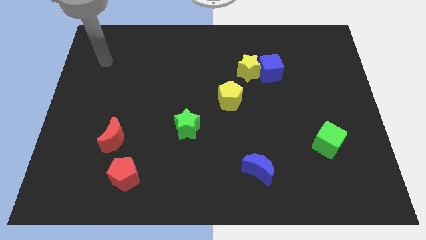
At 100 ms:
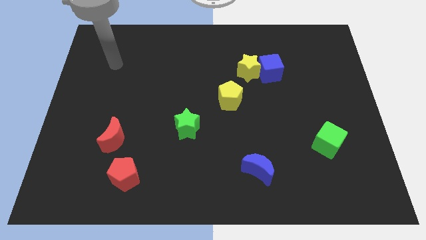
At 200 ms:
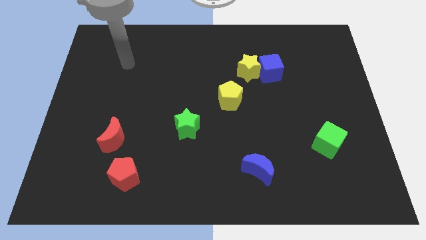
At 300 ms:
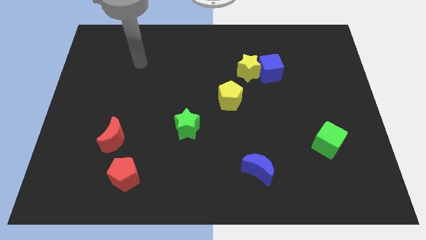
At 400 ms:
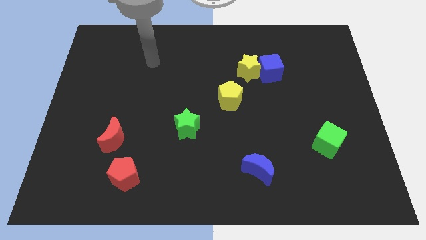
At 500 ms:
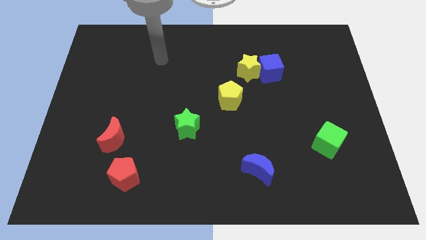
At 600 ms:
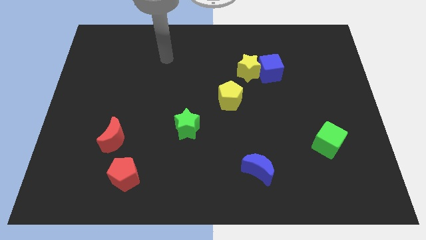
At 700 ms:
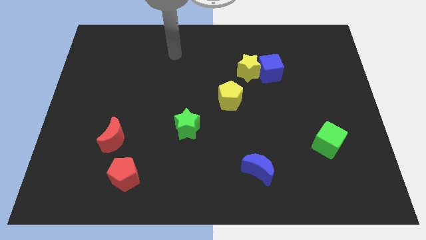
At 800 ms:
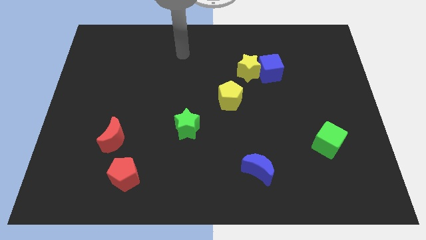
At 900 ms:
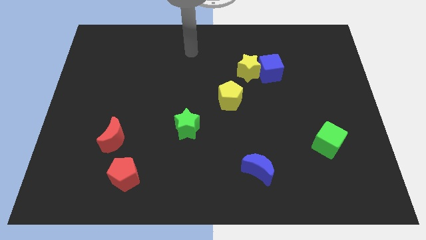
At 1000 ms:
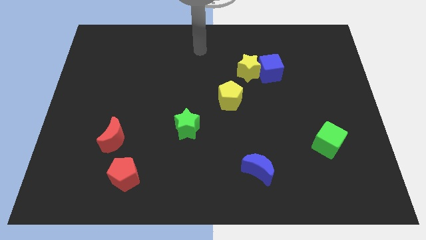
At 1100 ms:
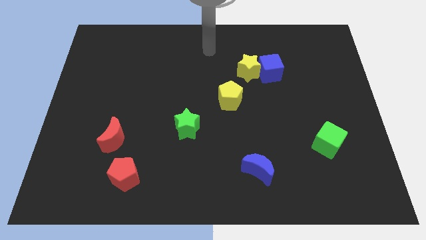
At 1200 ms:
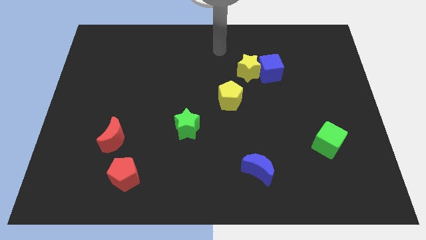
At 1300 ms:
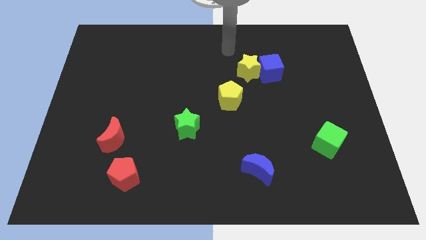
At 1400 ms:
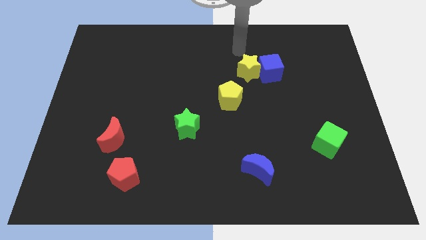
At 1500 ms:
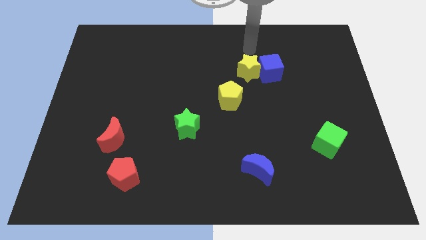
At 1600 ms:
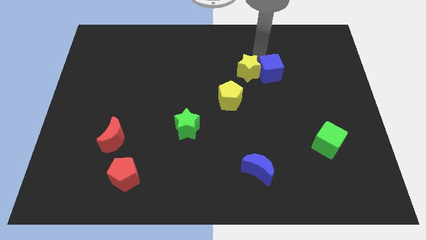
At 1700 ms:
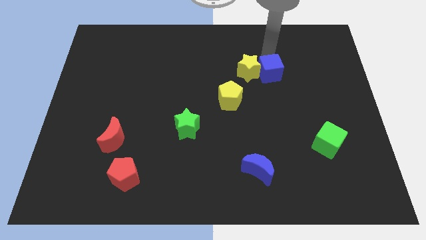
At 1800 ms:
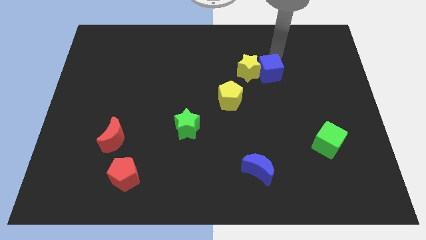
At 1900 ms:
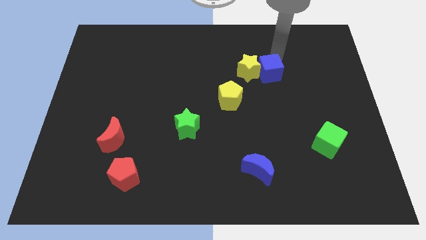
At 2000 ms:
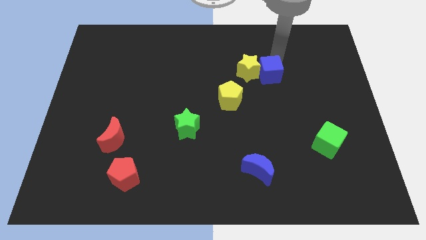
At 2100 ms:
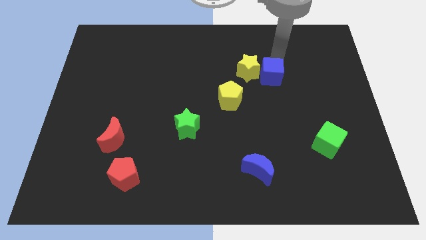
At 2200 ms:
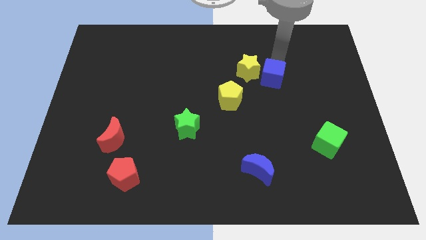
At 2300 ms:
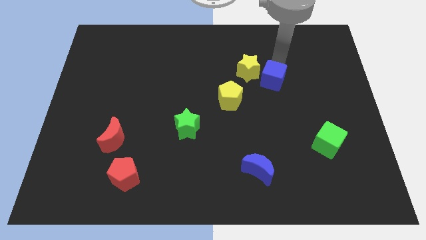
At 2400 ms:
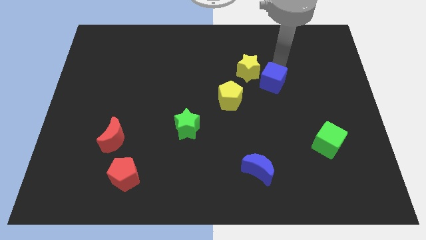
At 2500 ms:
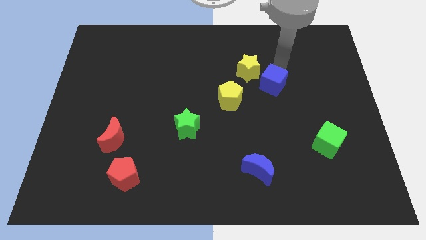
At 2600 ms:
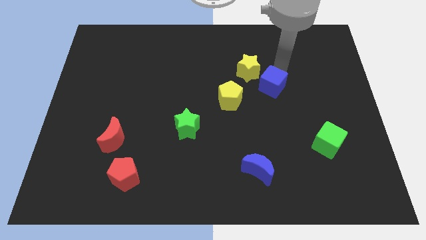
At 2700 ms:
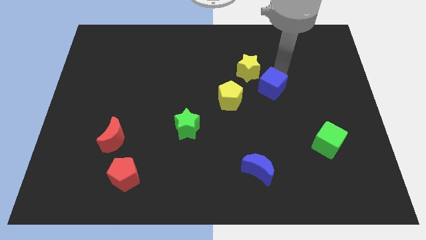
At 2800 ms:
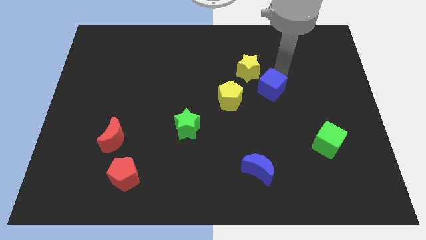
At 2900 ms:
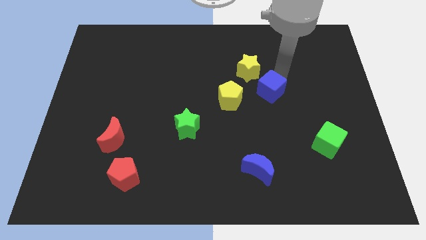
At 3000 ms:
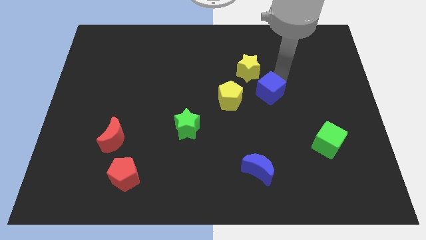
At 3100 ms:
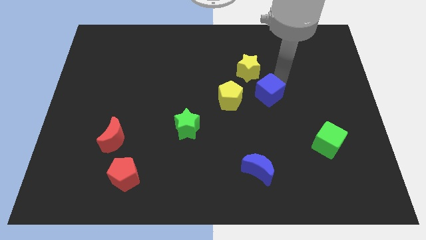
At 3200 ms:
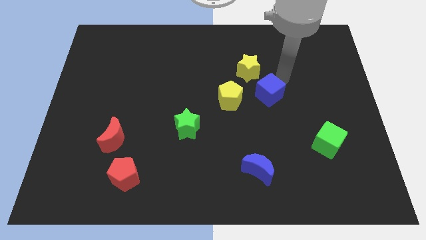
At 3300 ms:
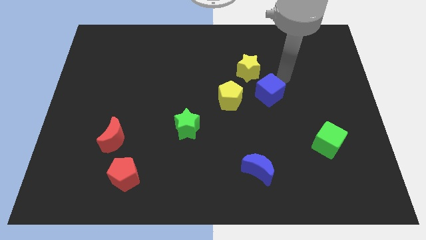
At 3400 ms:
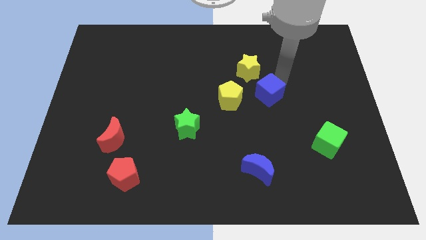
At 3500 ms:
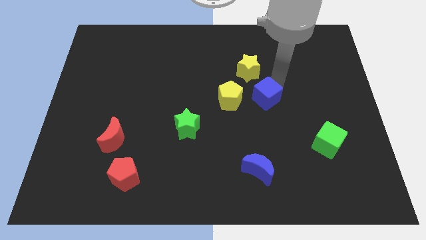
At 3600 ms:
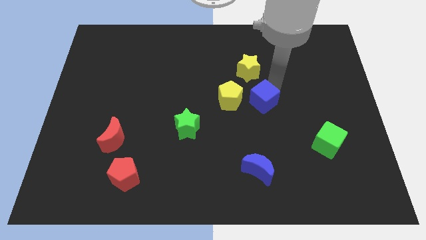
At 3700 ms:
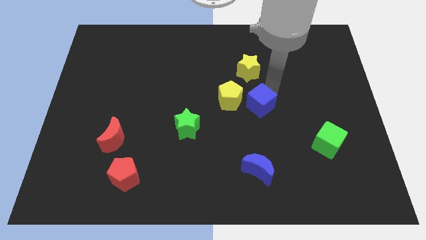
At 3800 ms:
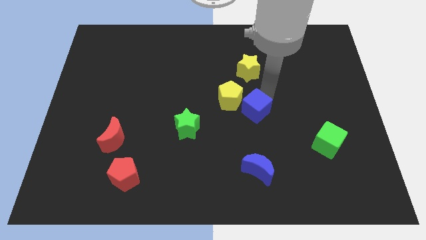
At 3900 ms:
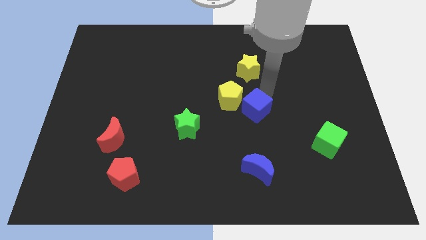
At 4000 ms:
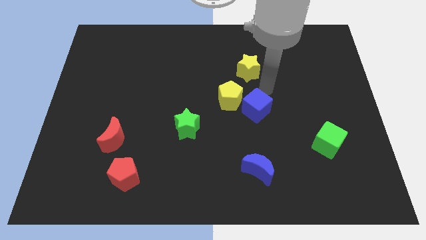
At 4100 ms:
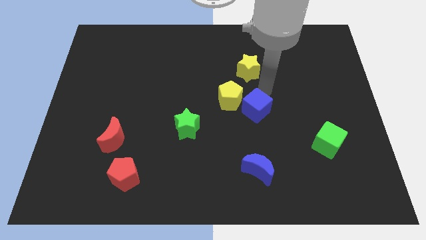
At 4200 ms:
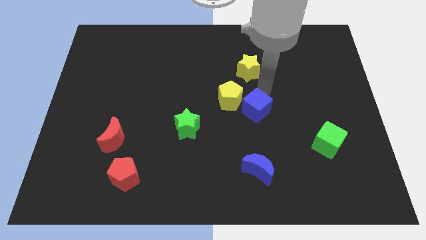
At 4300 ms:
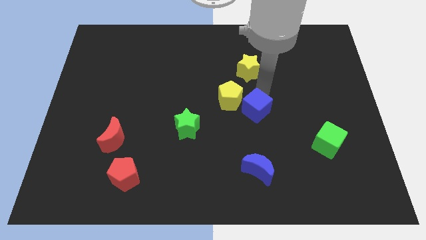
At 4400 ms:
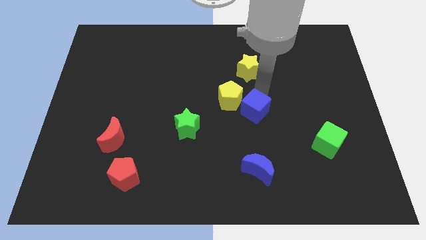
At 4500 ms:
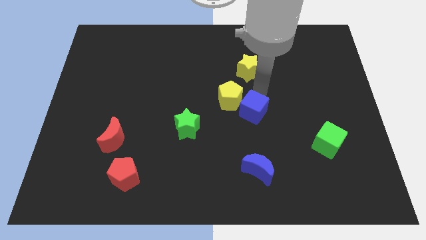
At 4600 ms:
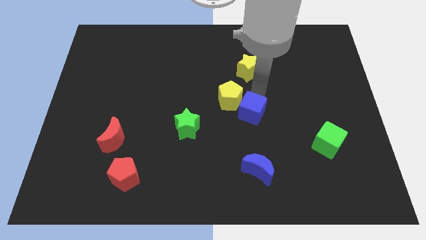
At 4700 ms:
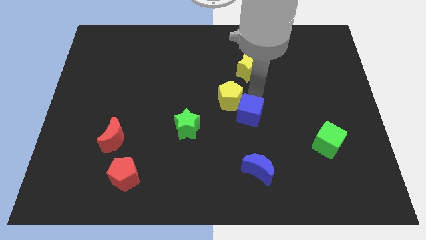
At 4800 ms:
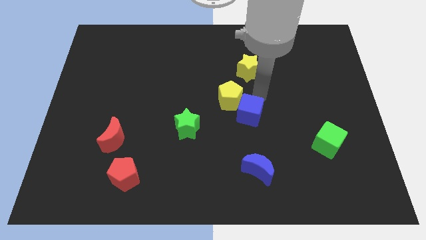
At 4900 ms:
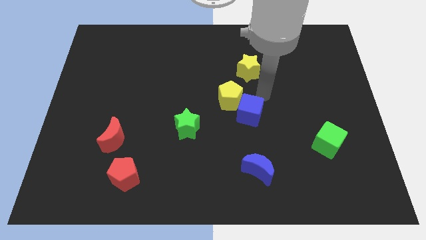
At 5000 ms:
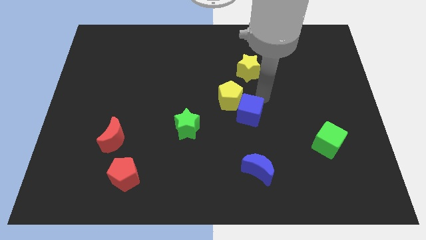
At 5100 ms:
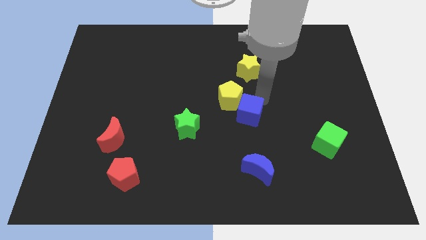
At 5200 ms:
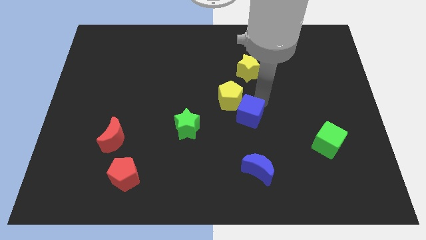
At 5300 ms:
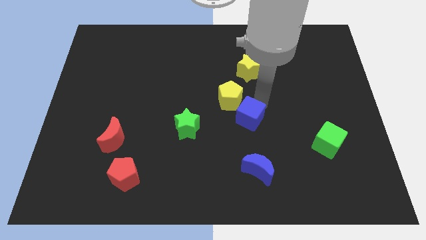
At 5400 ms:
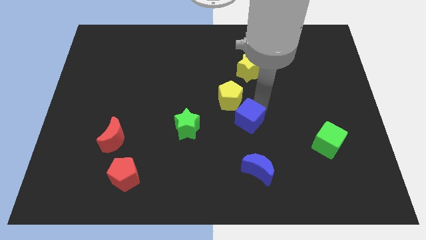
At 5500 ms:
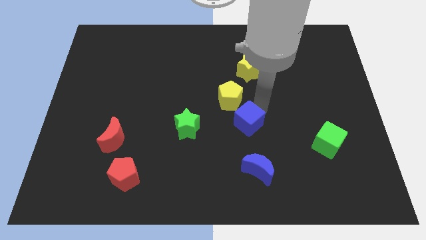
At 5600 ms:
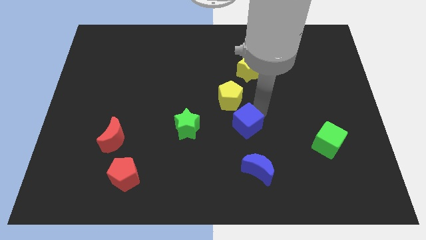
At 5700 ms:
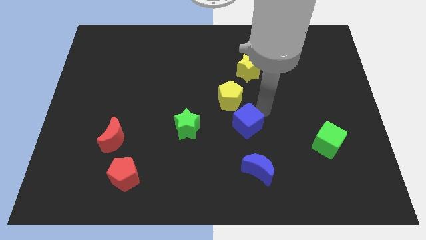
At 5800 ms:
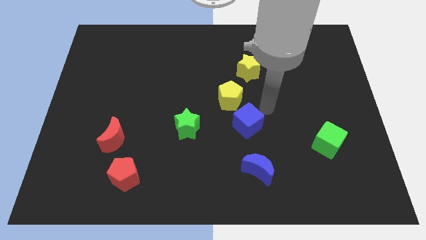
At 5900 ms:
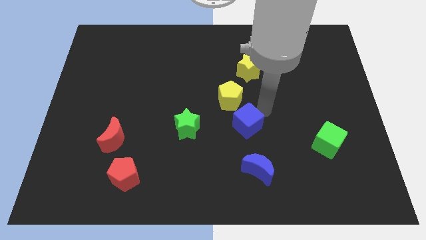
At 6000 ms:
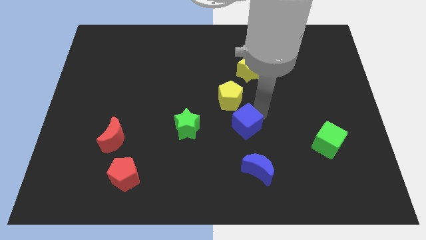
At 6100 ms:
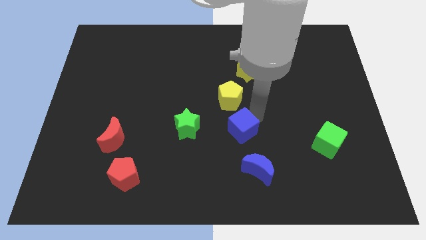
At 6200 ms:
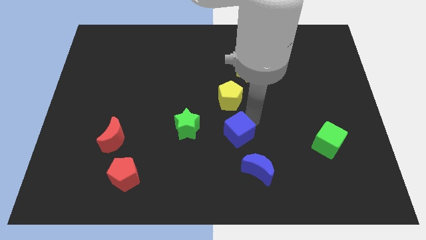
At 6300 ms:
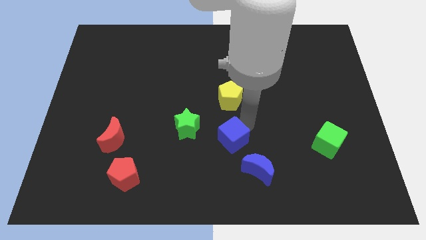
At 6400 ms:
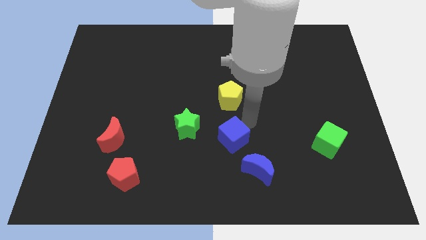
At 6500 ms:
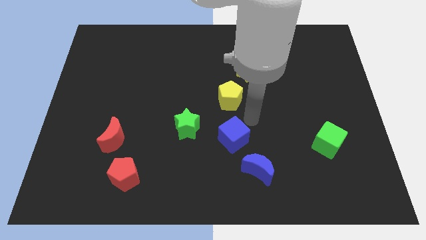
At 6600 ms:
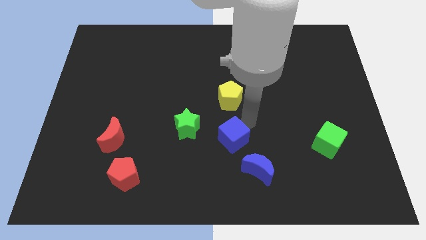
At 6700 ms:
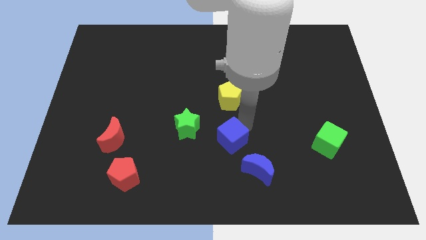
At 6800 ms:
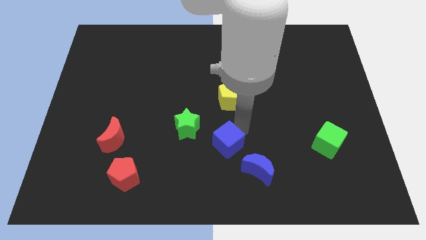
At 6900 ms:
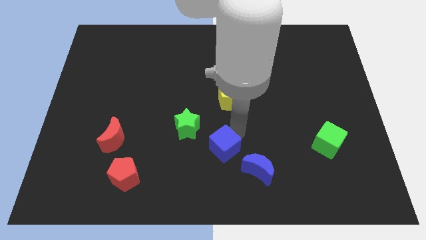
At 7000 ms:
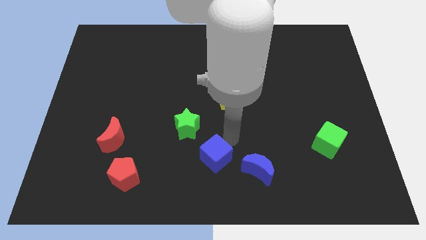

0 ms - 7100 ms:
put the blue cube to the bottom side
